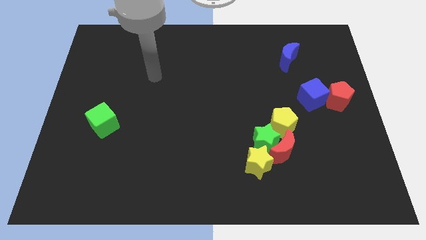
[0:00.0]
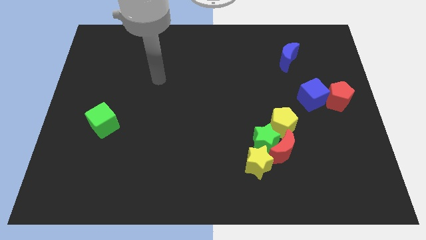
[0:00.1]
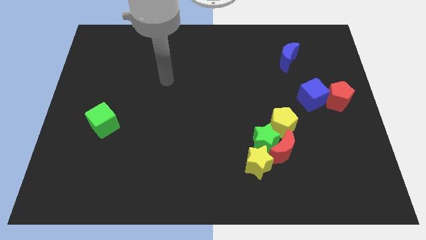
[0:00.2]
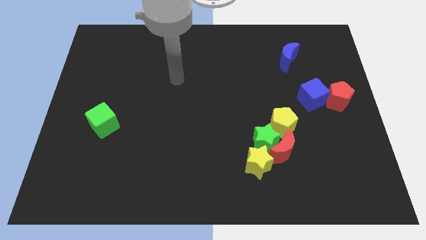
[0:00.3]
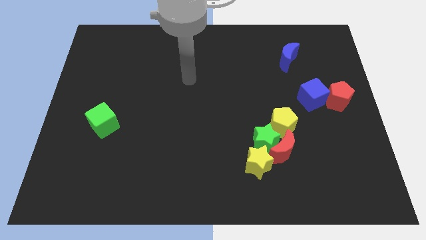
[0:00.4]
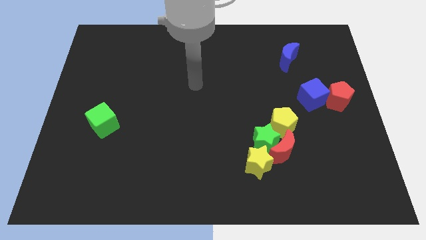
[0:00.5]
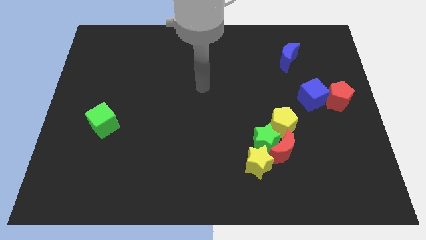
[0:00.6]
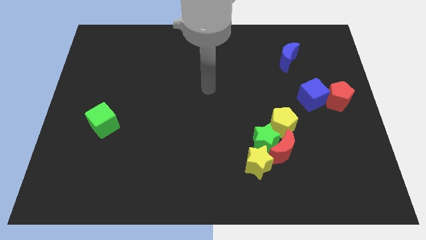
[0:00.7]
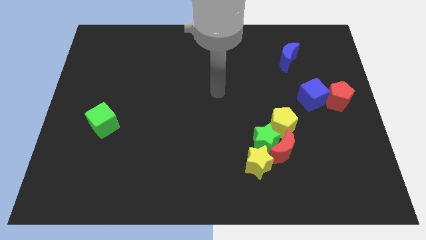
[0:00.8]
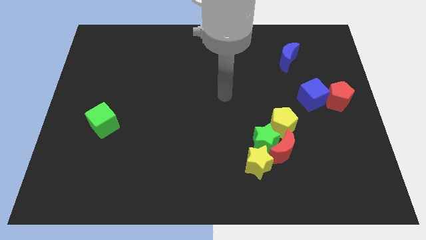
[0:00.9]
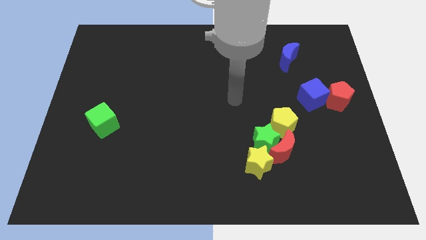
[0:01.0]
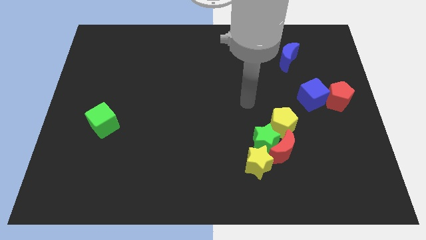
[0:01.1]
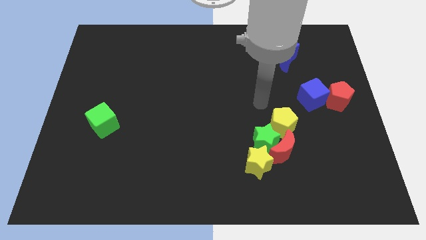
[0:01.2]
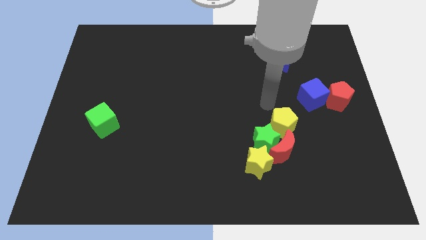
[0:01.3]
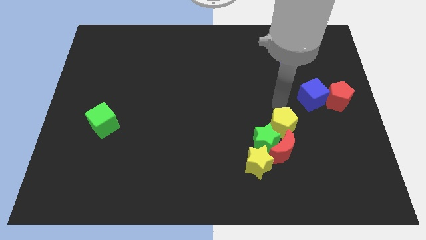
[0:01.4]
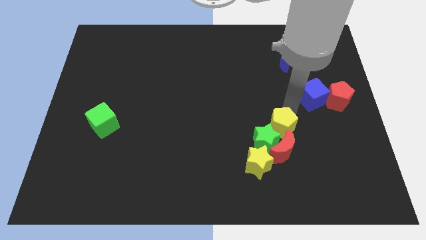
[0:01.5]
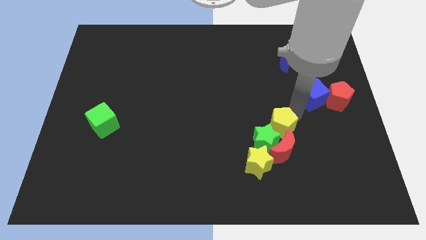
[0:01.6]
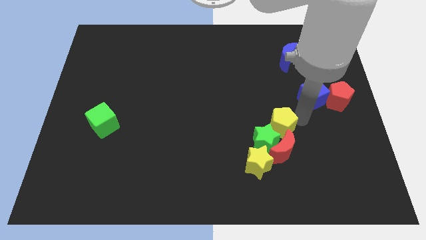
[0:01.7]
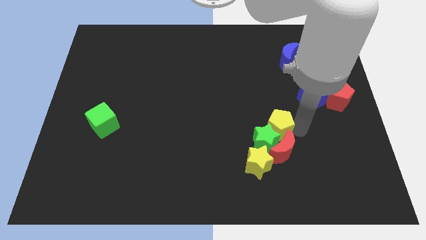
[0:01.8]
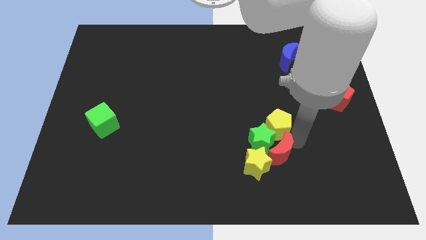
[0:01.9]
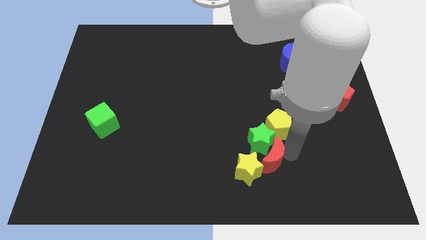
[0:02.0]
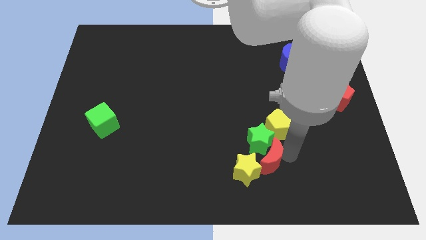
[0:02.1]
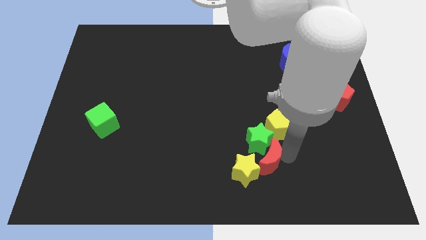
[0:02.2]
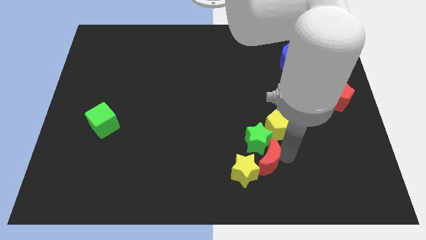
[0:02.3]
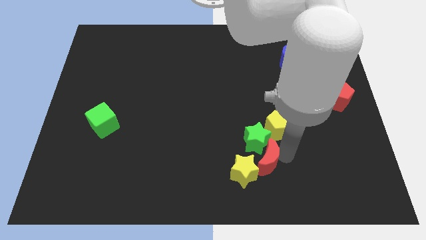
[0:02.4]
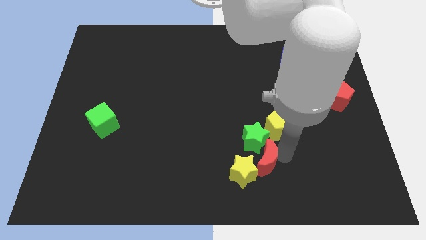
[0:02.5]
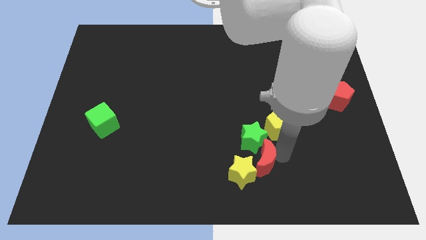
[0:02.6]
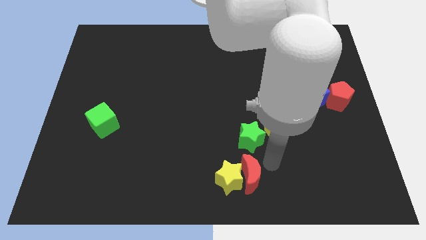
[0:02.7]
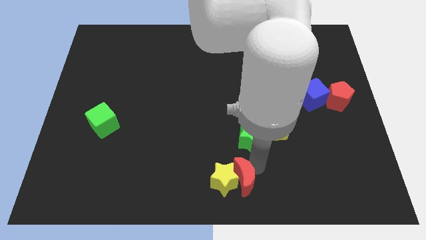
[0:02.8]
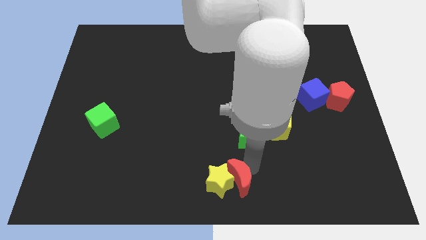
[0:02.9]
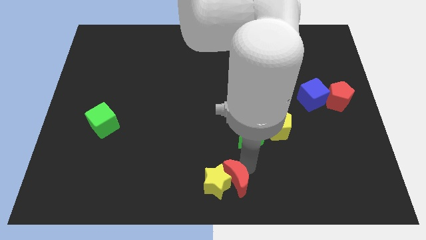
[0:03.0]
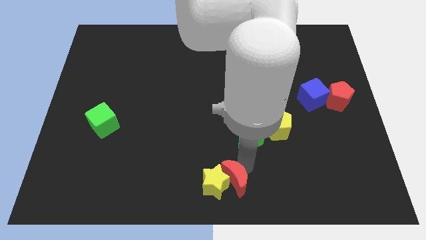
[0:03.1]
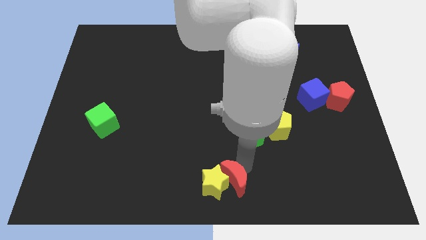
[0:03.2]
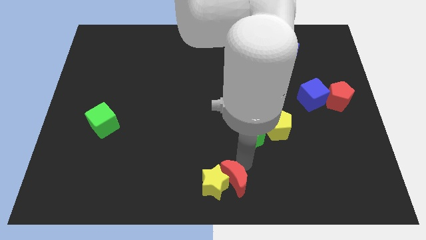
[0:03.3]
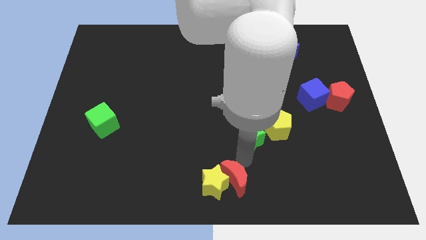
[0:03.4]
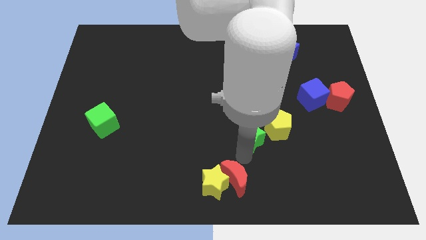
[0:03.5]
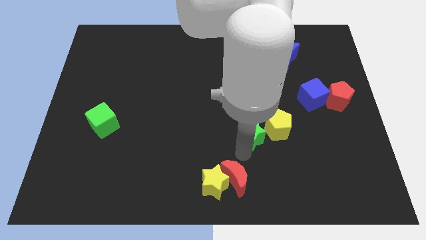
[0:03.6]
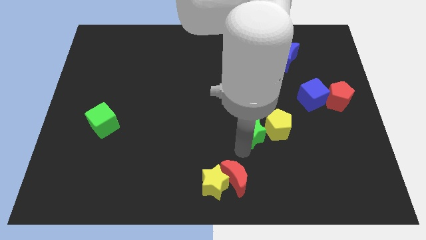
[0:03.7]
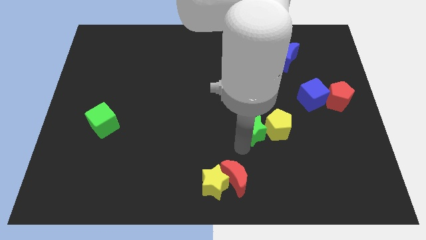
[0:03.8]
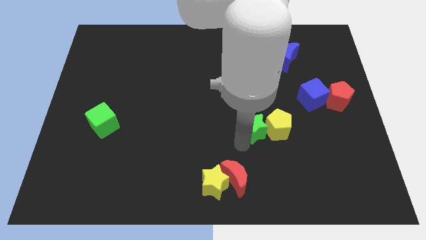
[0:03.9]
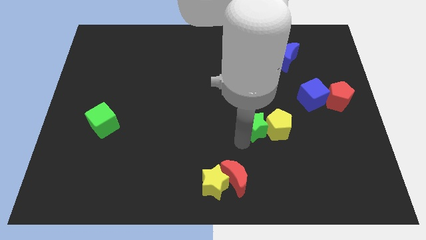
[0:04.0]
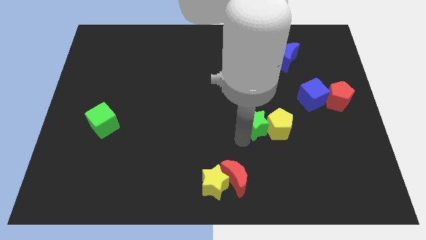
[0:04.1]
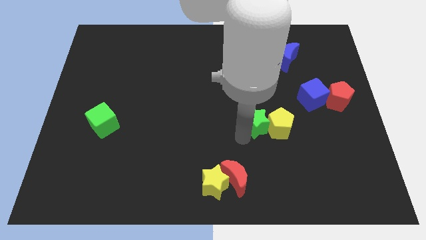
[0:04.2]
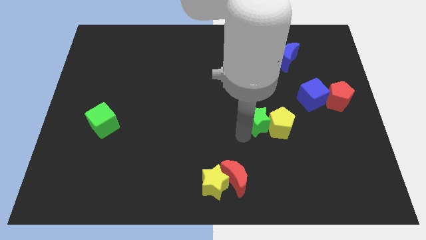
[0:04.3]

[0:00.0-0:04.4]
move the green star away from the red moon, yellow star, and yellow pentagon

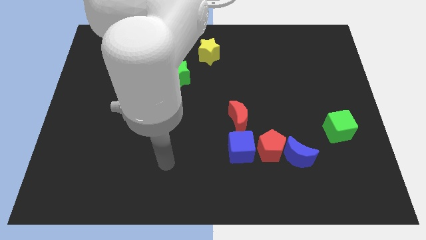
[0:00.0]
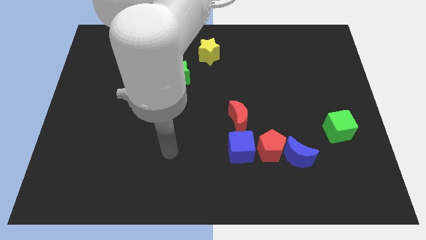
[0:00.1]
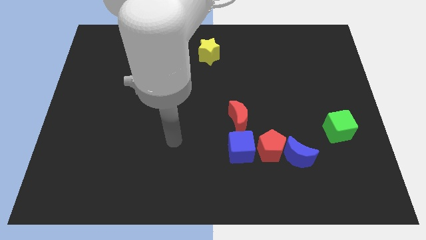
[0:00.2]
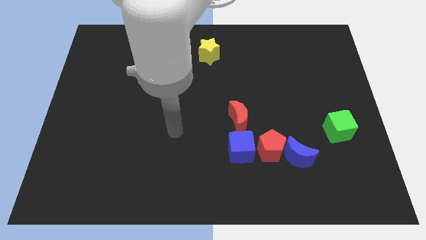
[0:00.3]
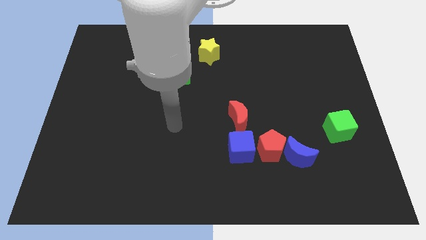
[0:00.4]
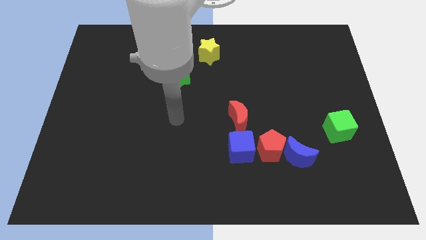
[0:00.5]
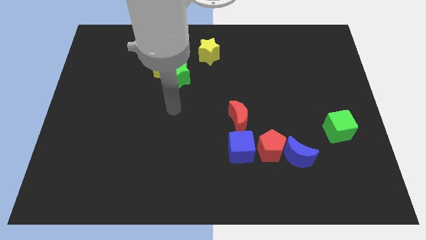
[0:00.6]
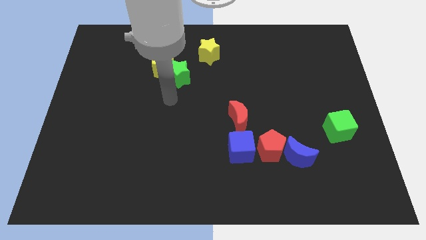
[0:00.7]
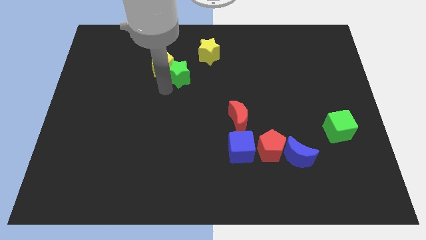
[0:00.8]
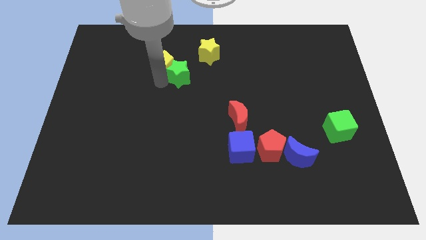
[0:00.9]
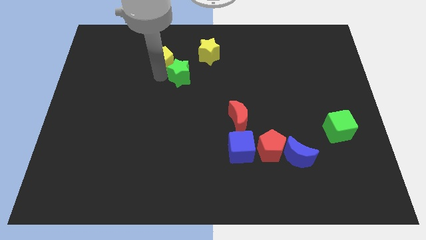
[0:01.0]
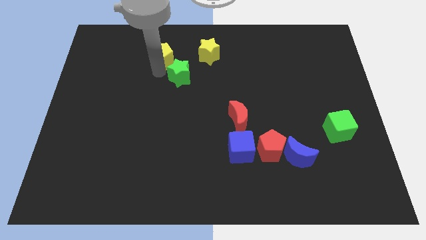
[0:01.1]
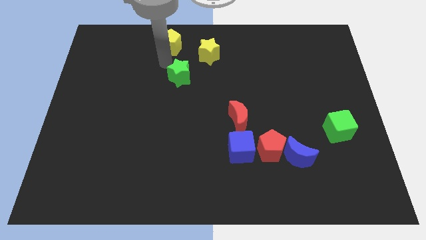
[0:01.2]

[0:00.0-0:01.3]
move the green star away from the yellow pentagon

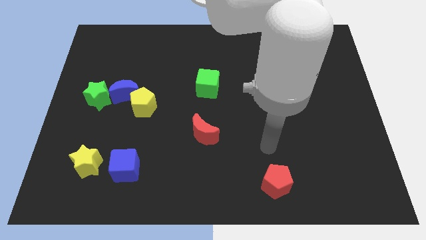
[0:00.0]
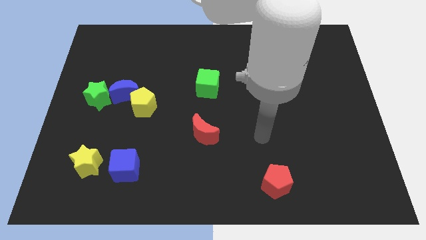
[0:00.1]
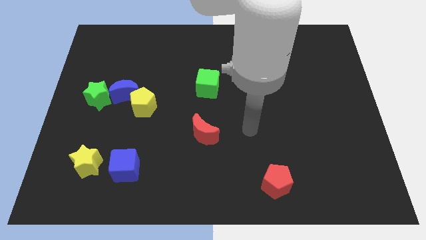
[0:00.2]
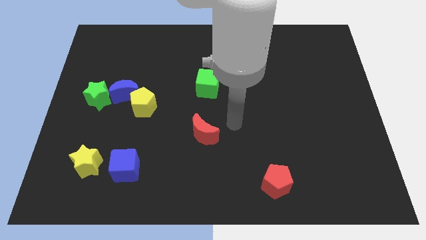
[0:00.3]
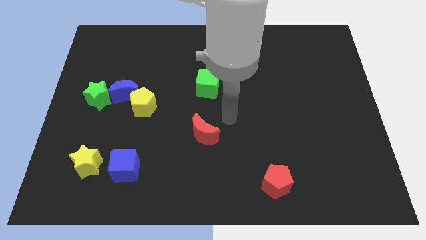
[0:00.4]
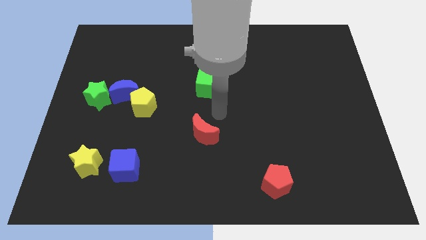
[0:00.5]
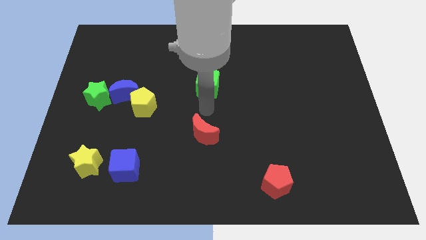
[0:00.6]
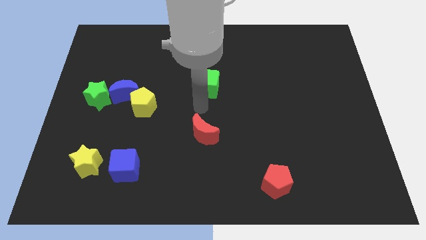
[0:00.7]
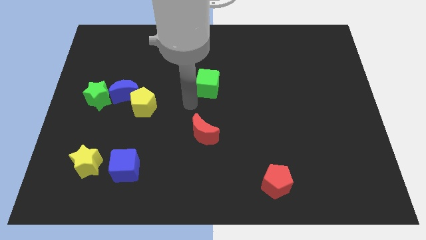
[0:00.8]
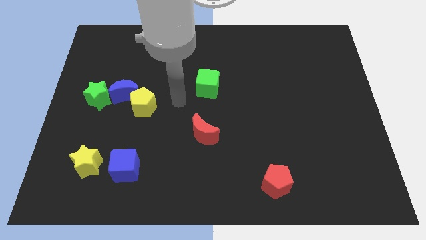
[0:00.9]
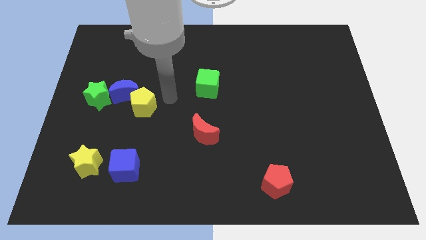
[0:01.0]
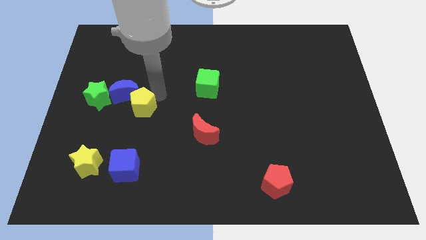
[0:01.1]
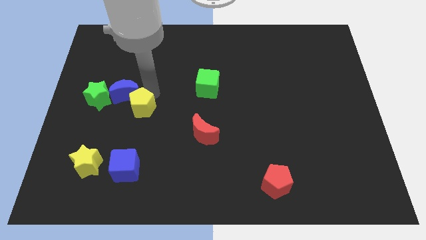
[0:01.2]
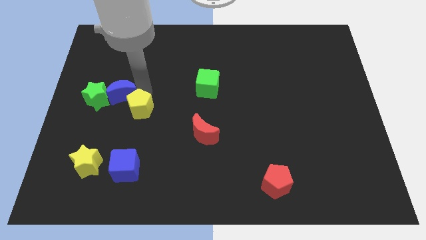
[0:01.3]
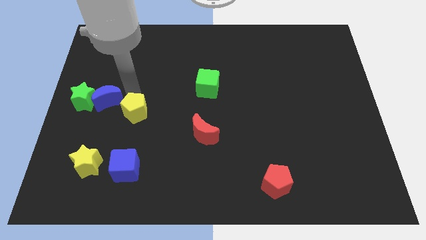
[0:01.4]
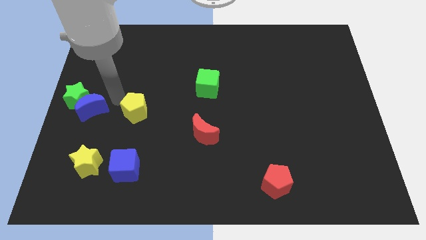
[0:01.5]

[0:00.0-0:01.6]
pull the yellow pentagon apart from the blue moon

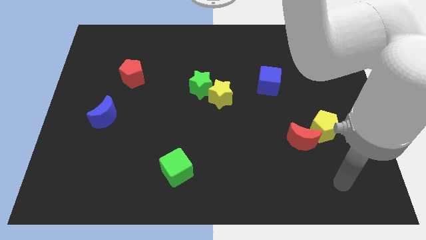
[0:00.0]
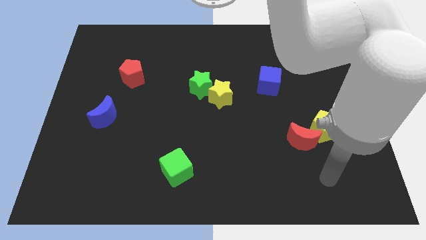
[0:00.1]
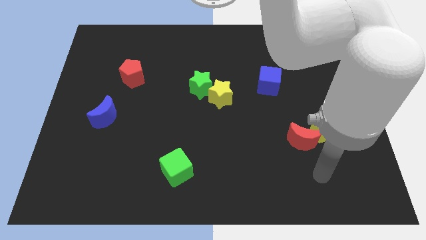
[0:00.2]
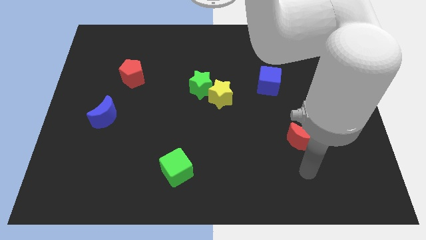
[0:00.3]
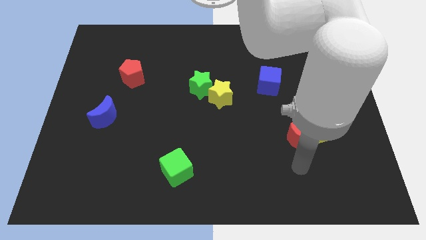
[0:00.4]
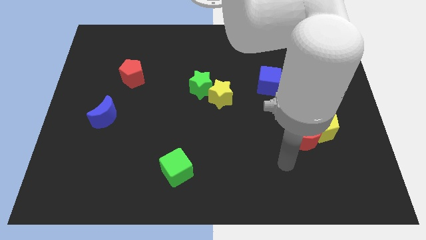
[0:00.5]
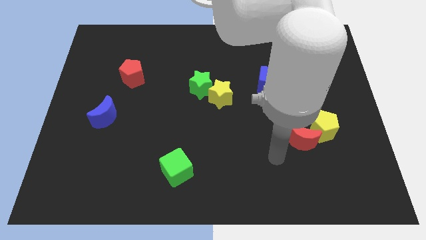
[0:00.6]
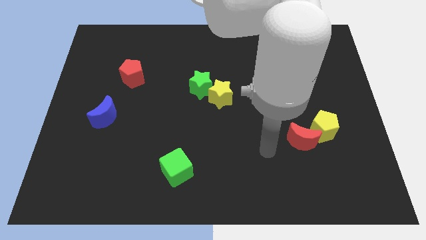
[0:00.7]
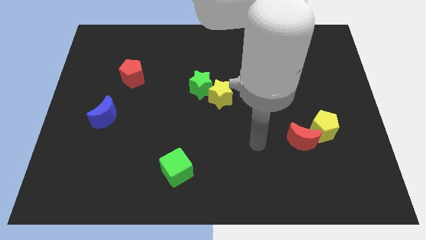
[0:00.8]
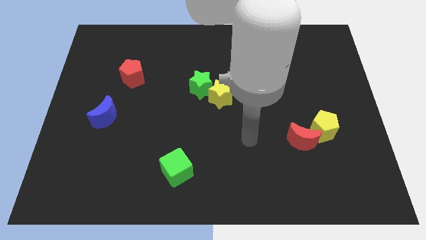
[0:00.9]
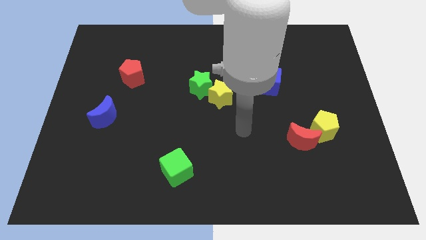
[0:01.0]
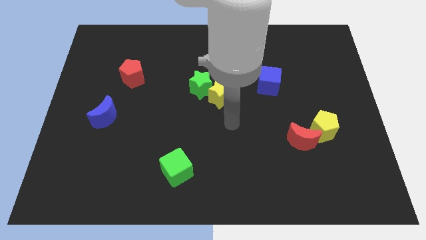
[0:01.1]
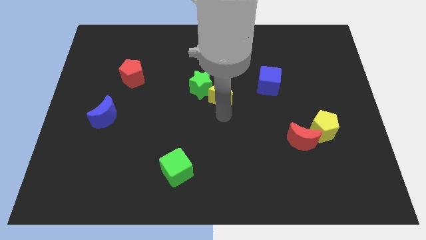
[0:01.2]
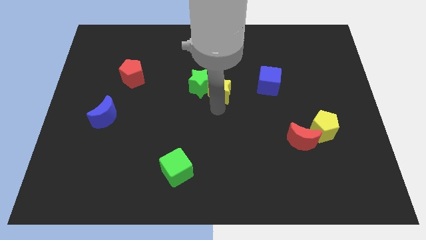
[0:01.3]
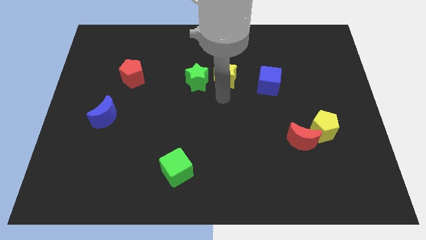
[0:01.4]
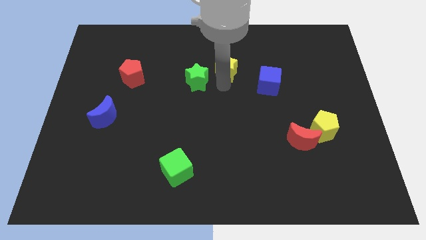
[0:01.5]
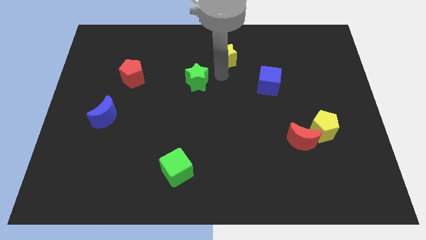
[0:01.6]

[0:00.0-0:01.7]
move the green star away from the yellow star

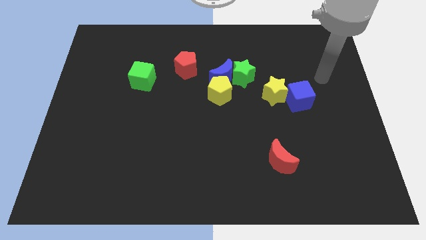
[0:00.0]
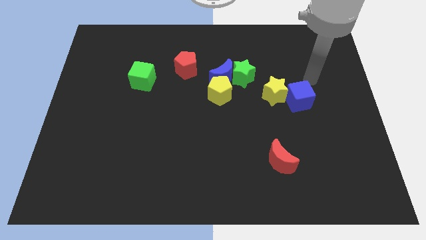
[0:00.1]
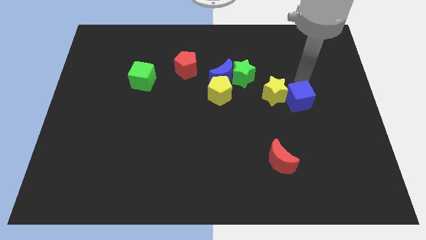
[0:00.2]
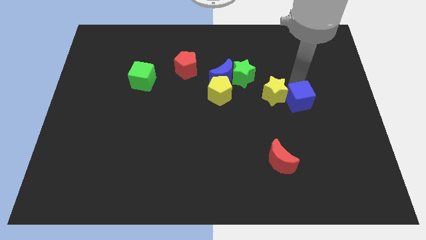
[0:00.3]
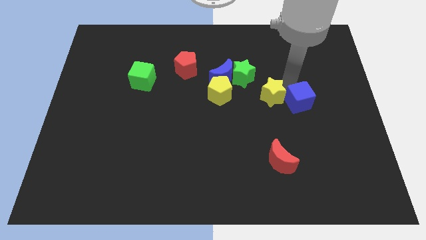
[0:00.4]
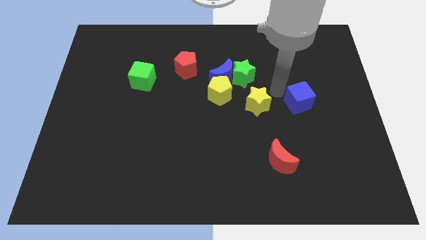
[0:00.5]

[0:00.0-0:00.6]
separate the blue cube from the yellow star
